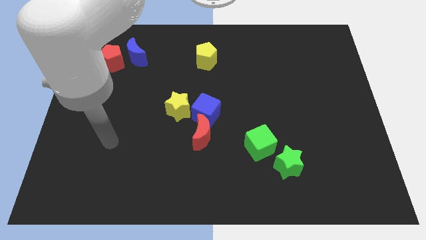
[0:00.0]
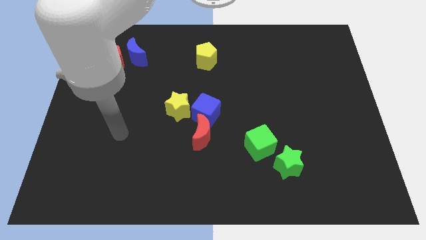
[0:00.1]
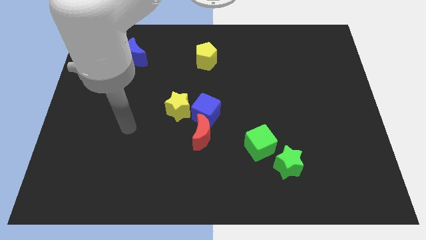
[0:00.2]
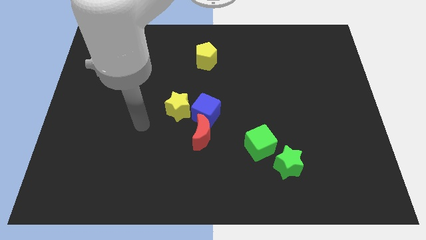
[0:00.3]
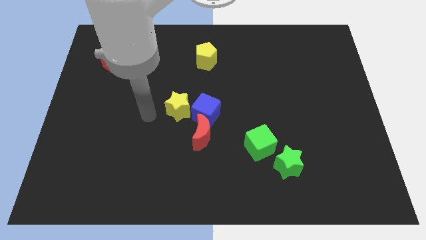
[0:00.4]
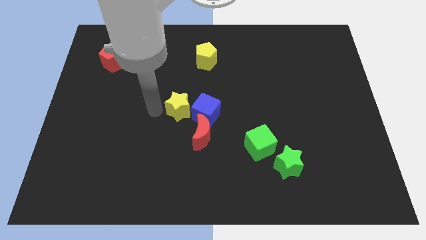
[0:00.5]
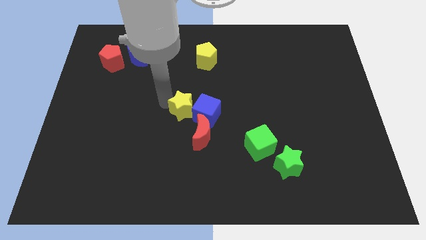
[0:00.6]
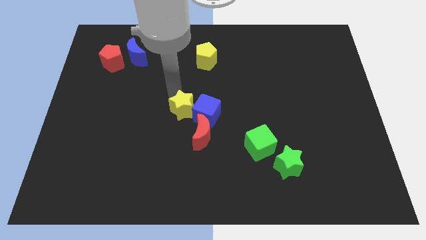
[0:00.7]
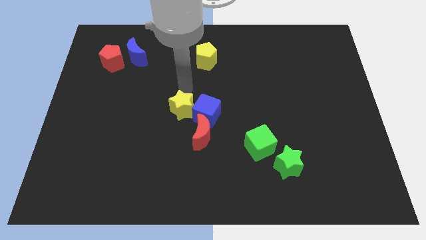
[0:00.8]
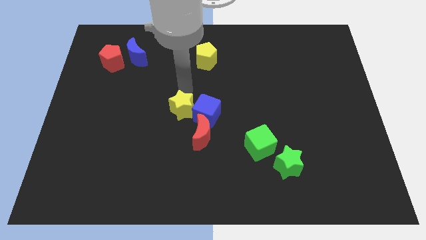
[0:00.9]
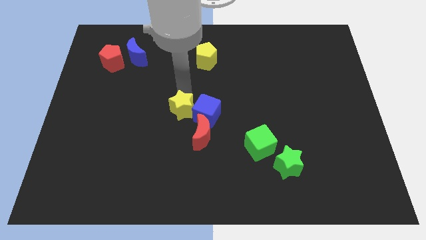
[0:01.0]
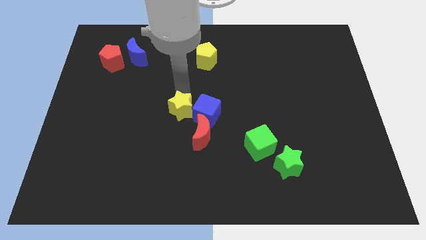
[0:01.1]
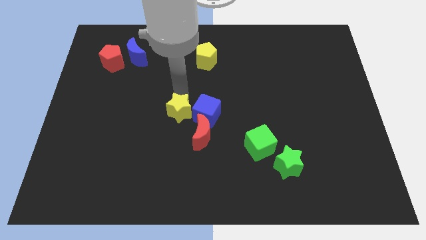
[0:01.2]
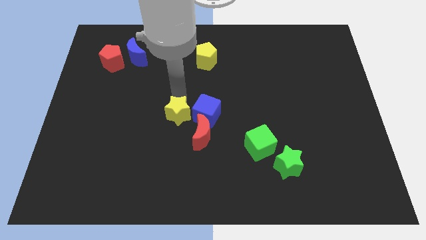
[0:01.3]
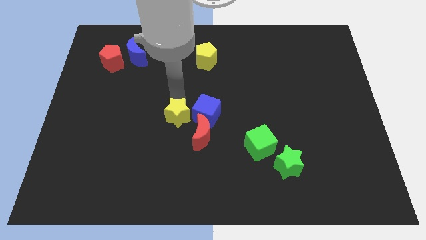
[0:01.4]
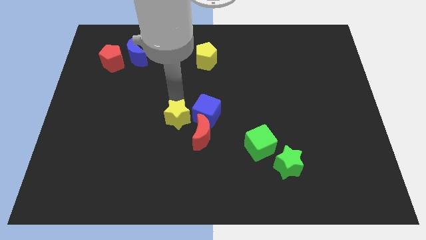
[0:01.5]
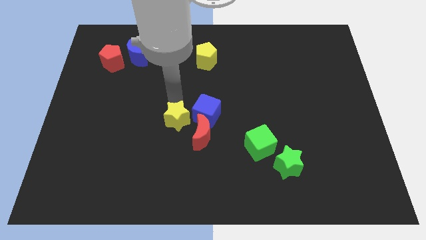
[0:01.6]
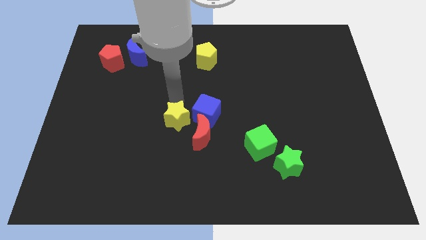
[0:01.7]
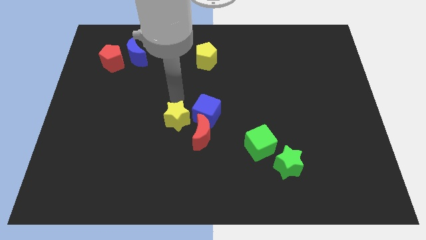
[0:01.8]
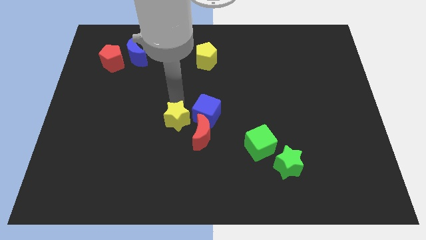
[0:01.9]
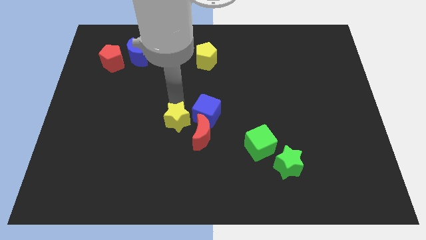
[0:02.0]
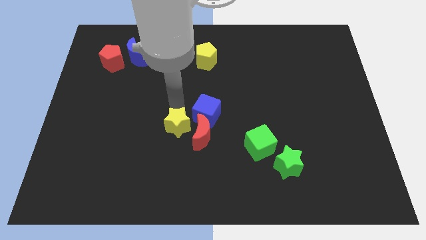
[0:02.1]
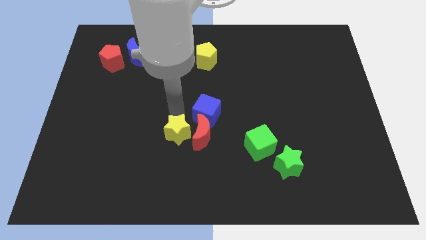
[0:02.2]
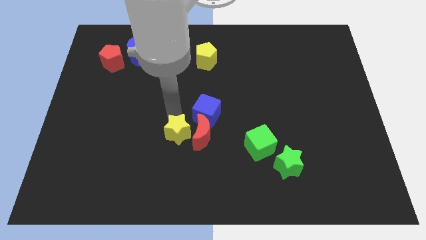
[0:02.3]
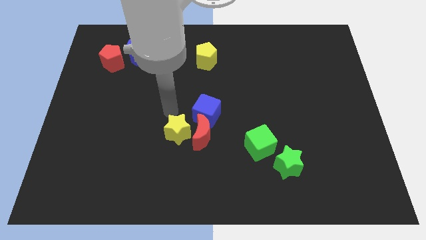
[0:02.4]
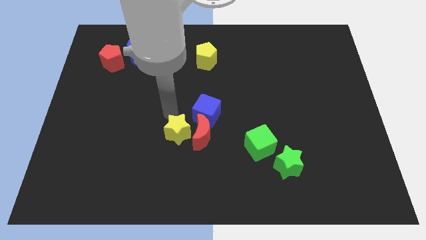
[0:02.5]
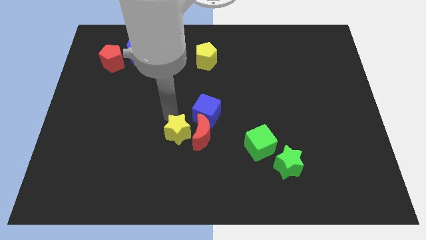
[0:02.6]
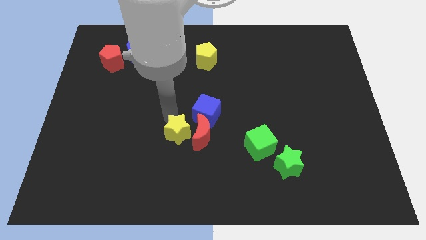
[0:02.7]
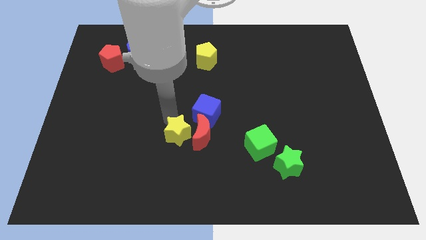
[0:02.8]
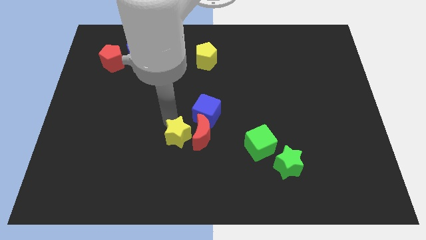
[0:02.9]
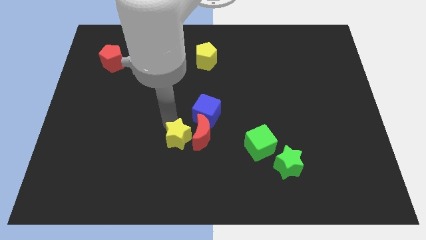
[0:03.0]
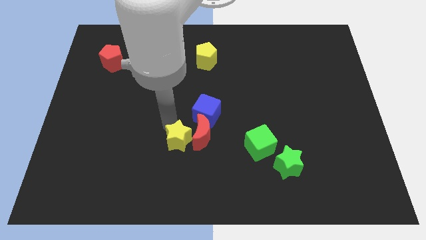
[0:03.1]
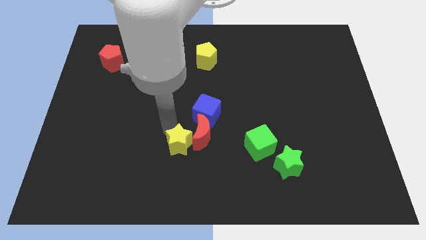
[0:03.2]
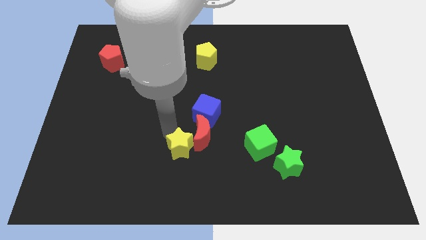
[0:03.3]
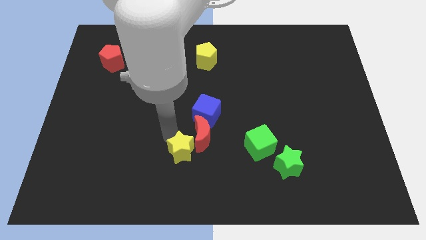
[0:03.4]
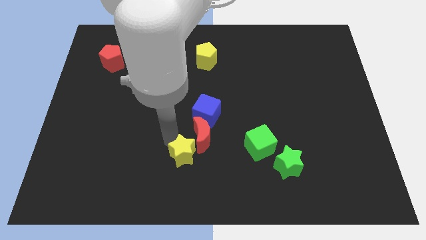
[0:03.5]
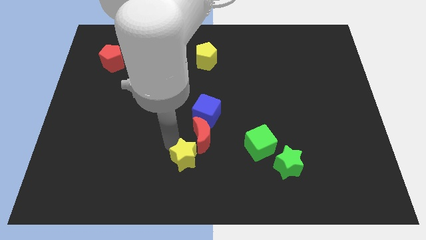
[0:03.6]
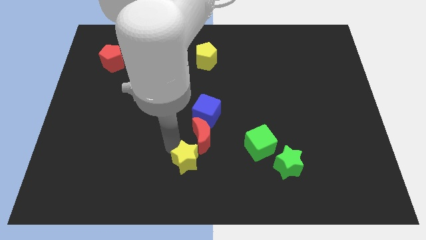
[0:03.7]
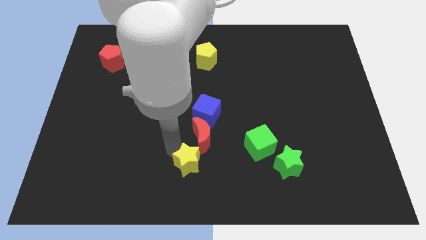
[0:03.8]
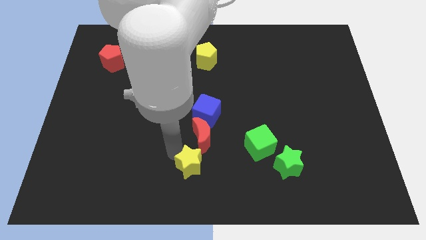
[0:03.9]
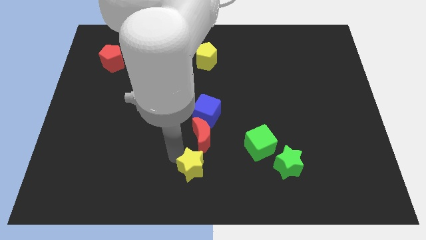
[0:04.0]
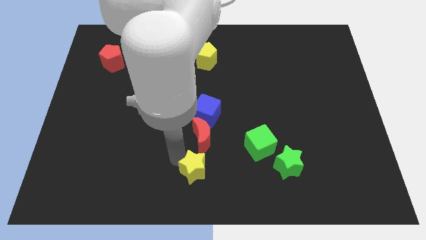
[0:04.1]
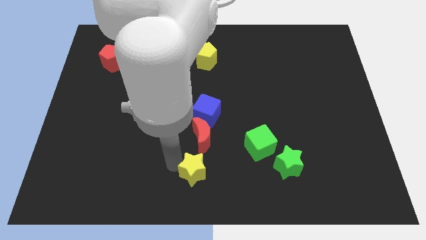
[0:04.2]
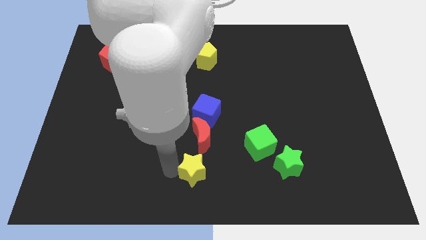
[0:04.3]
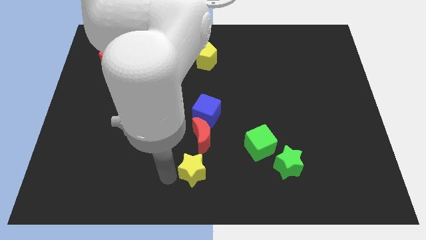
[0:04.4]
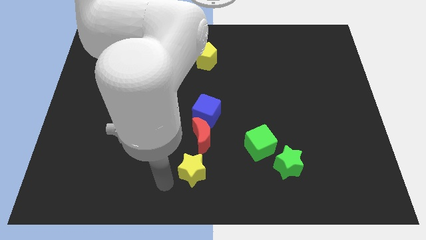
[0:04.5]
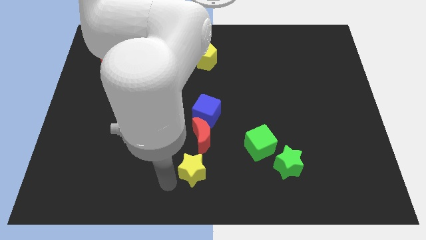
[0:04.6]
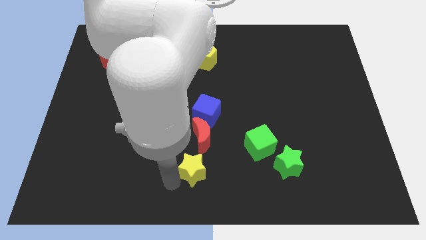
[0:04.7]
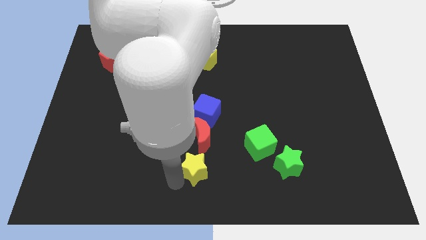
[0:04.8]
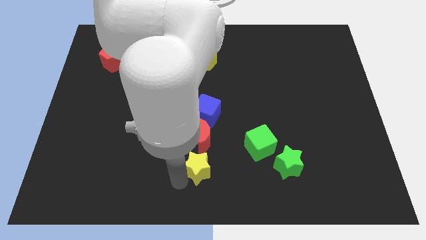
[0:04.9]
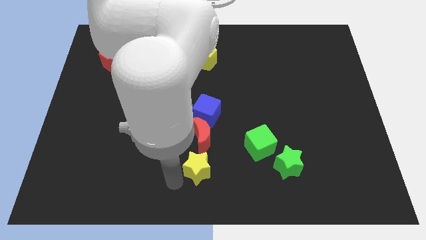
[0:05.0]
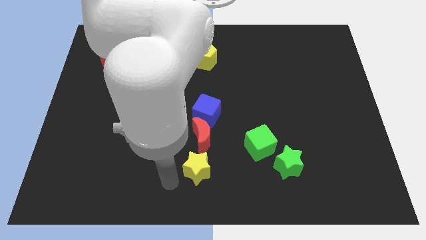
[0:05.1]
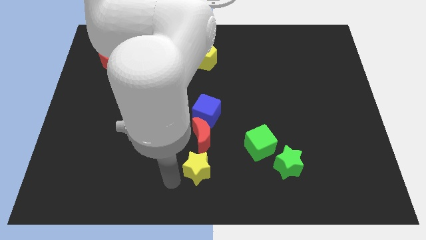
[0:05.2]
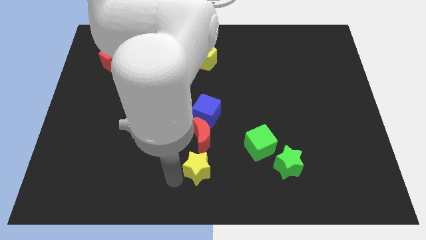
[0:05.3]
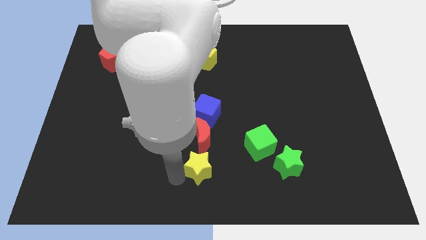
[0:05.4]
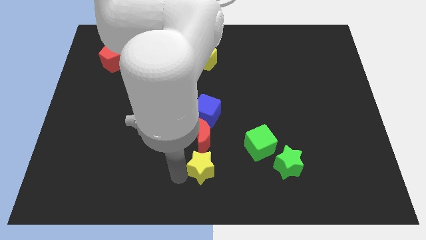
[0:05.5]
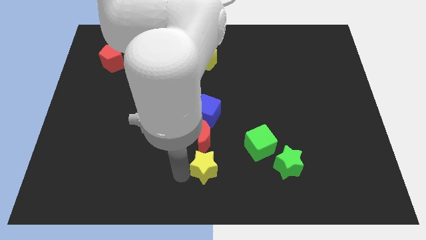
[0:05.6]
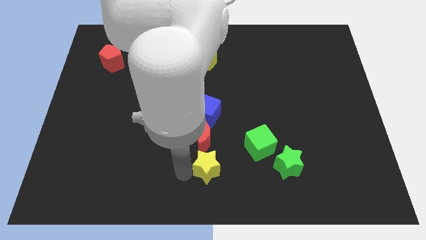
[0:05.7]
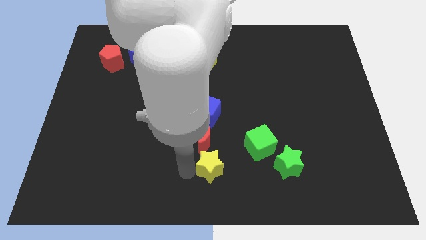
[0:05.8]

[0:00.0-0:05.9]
move the yellow star to the left of the green star

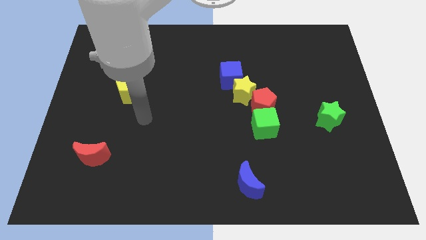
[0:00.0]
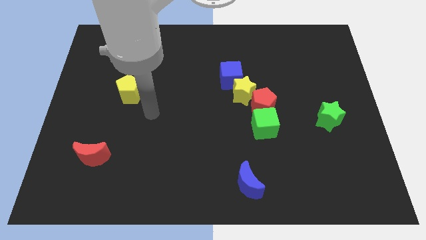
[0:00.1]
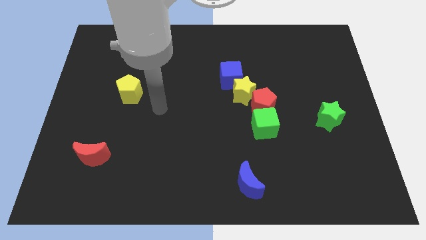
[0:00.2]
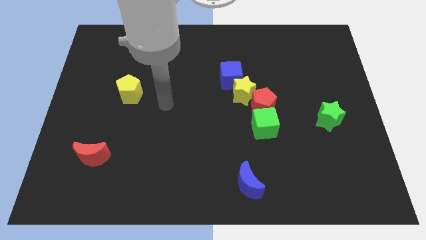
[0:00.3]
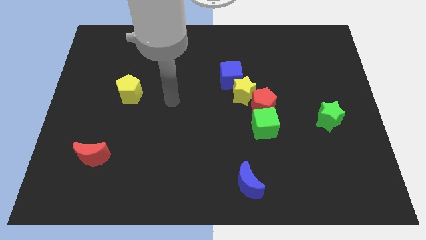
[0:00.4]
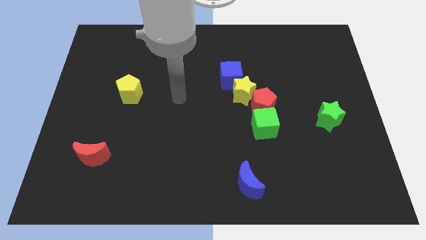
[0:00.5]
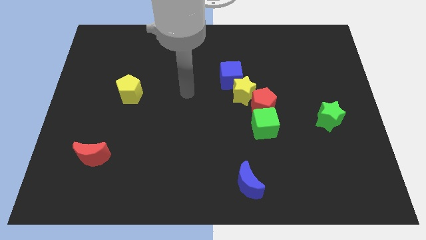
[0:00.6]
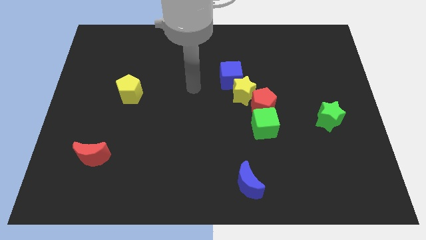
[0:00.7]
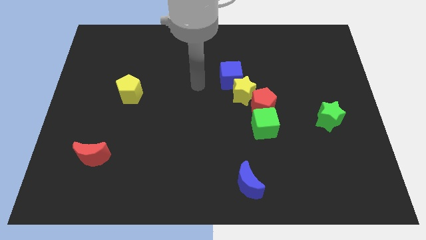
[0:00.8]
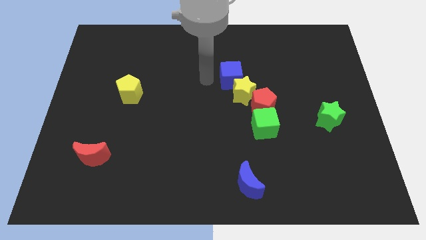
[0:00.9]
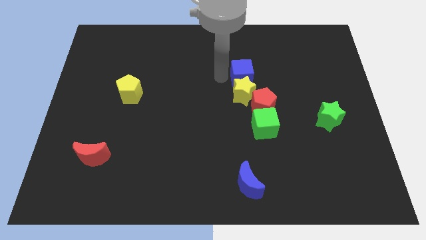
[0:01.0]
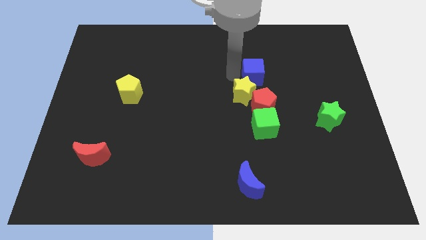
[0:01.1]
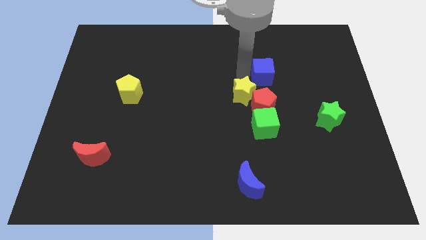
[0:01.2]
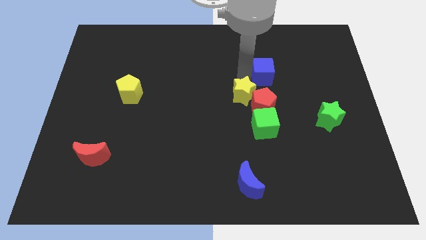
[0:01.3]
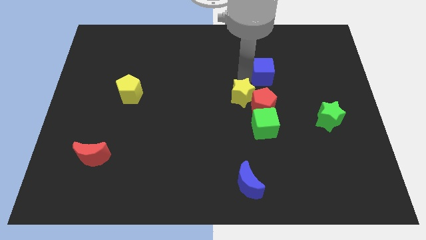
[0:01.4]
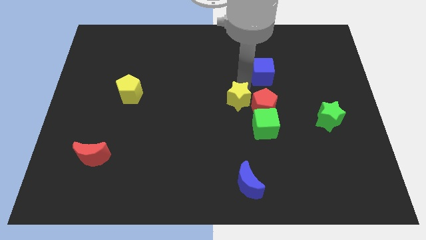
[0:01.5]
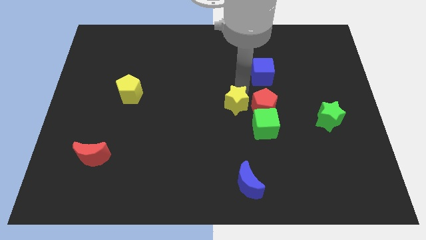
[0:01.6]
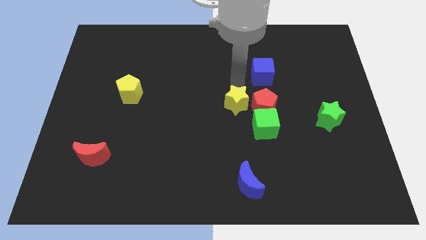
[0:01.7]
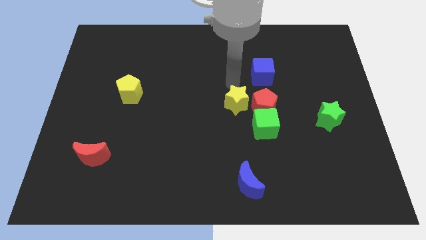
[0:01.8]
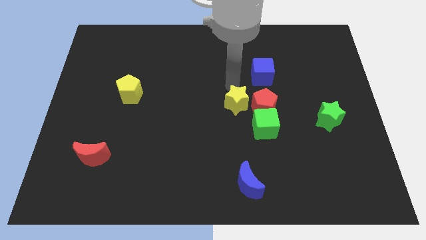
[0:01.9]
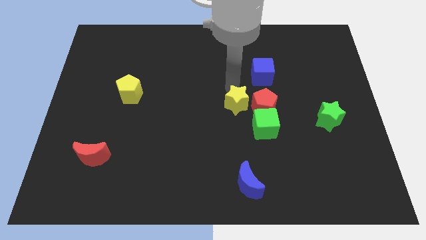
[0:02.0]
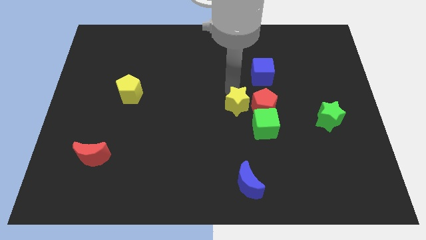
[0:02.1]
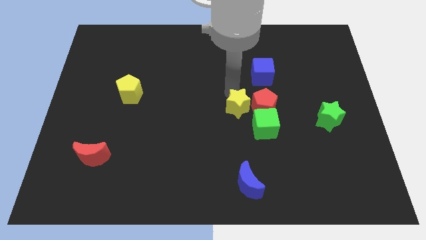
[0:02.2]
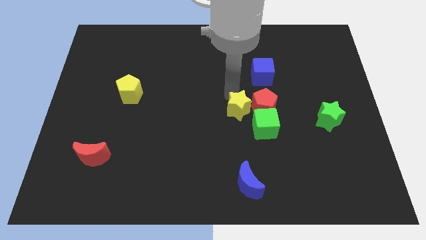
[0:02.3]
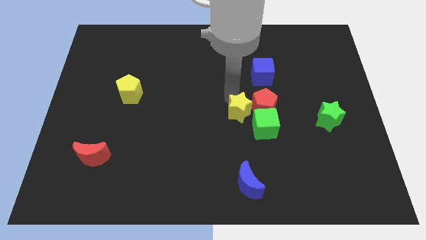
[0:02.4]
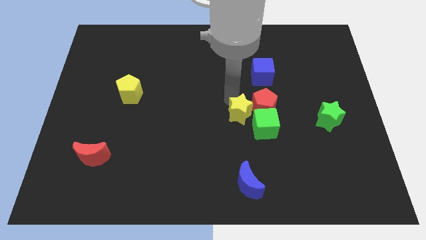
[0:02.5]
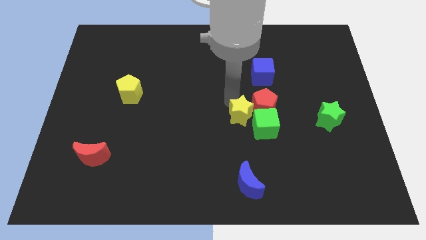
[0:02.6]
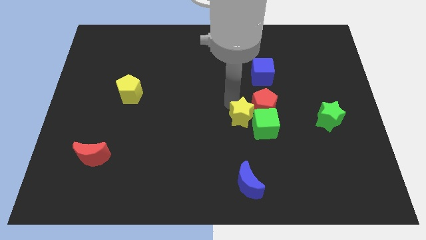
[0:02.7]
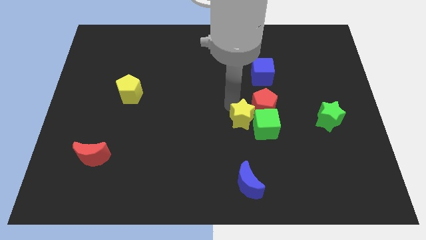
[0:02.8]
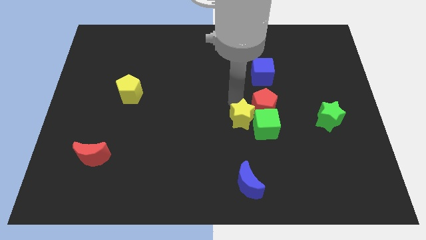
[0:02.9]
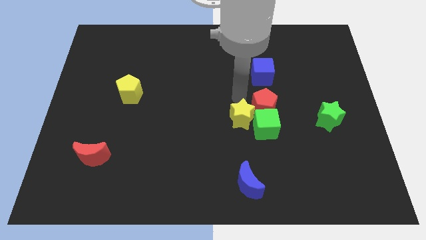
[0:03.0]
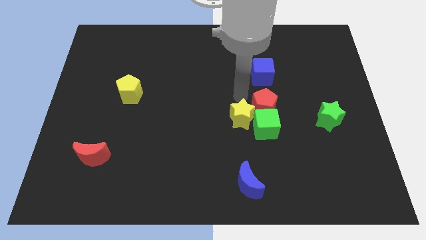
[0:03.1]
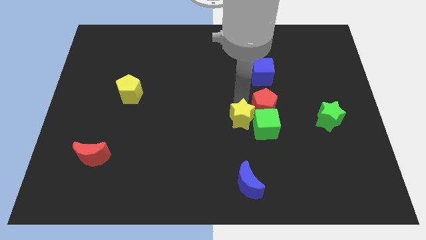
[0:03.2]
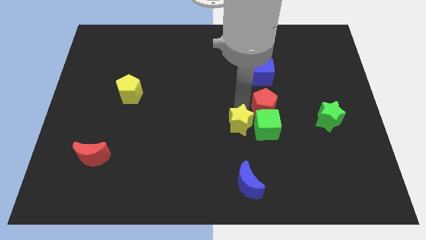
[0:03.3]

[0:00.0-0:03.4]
put the yellow star to the top side of the blue moon
